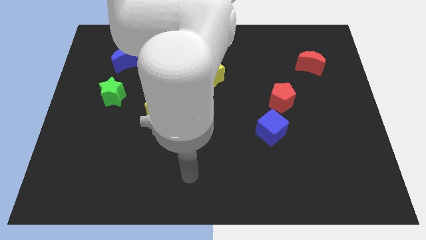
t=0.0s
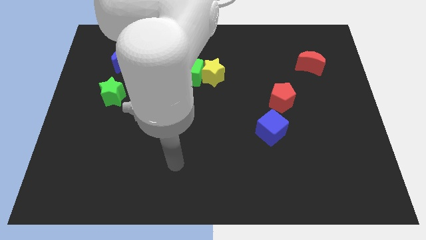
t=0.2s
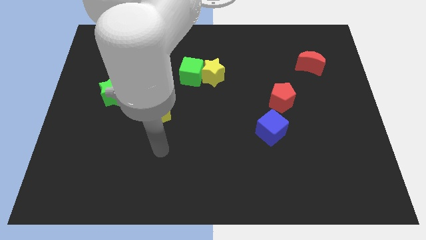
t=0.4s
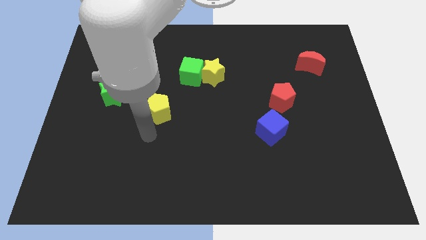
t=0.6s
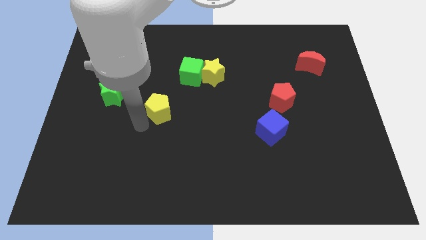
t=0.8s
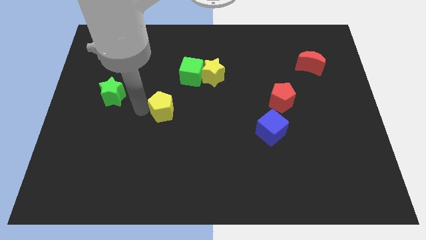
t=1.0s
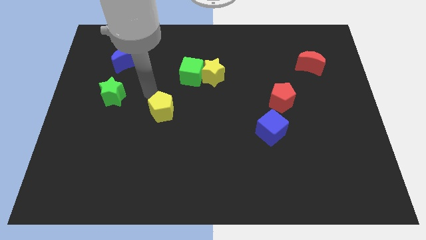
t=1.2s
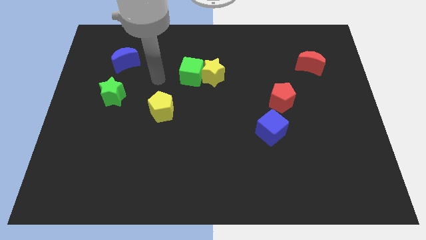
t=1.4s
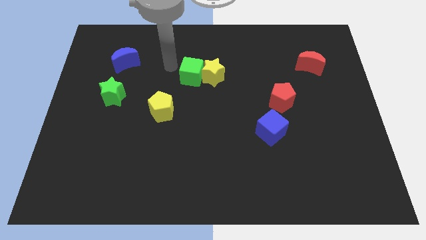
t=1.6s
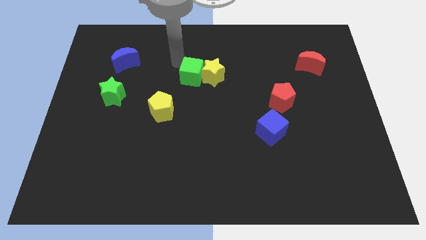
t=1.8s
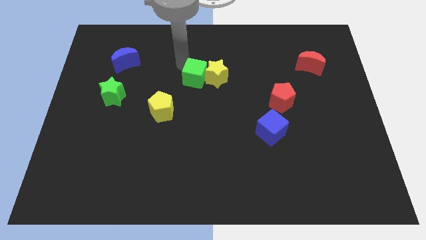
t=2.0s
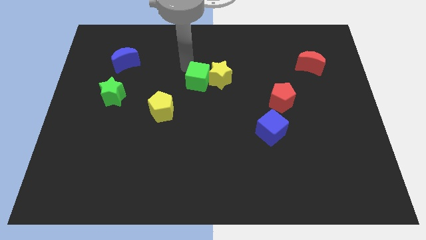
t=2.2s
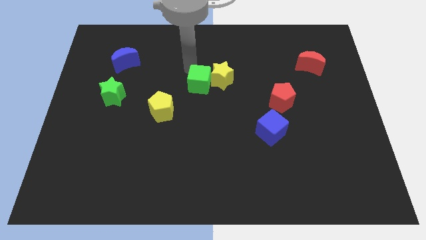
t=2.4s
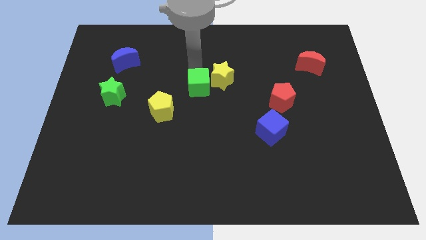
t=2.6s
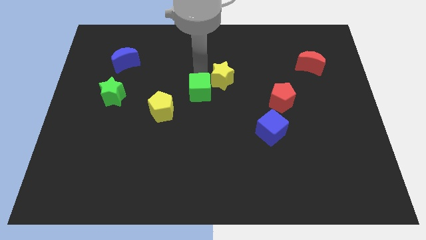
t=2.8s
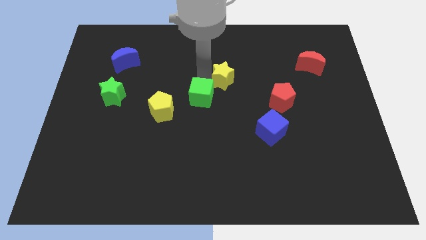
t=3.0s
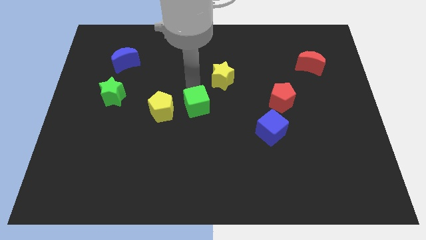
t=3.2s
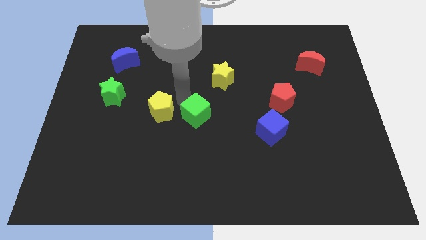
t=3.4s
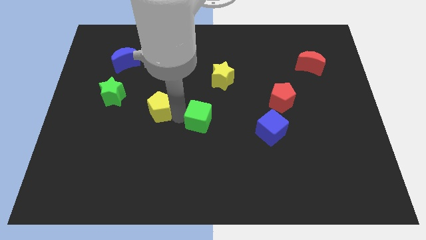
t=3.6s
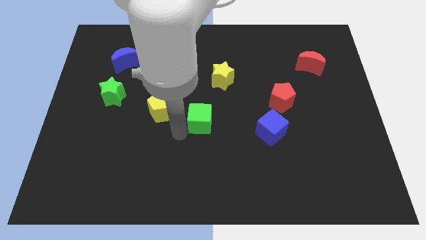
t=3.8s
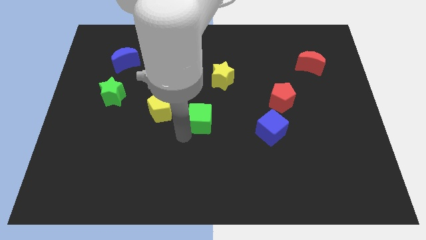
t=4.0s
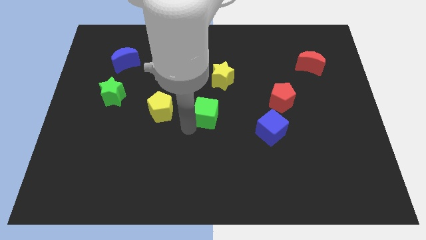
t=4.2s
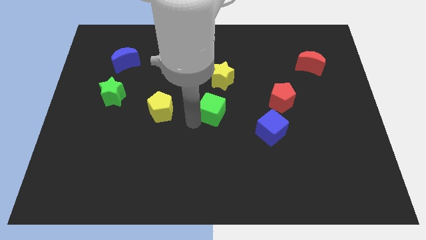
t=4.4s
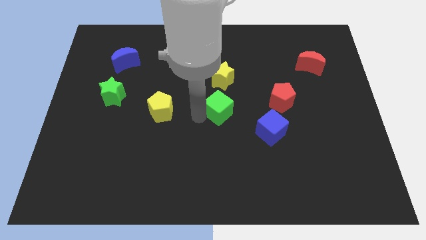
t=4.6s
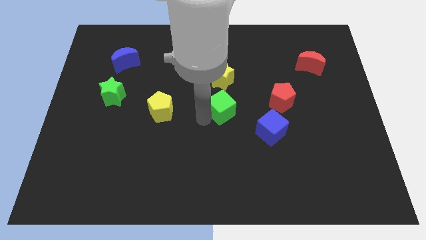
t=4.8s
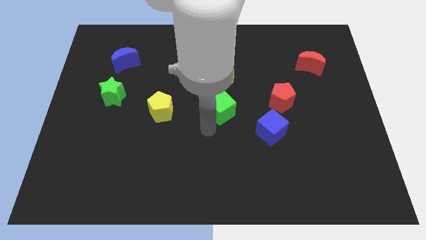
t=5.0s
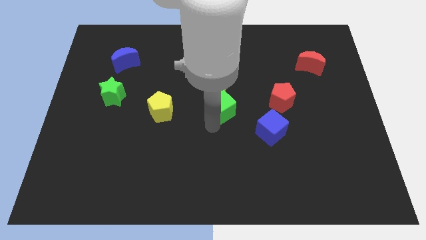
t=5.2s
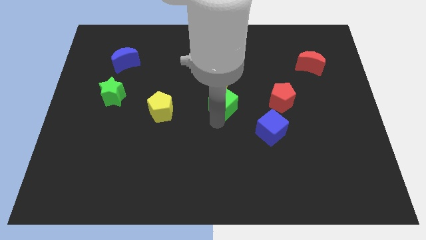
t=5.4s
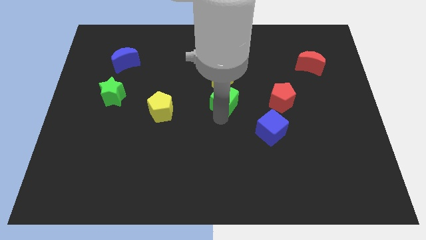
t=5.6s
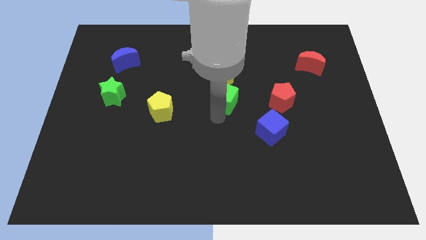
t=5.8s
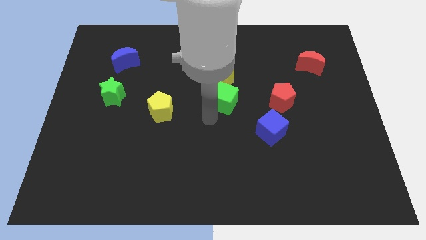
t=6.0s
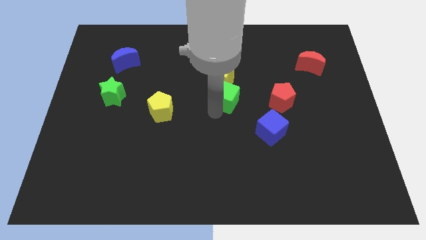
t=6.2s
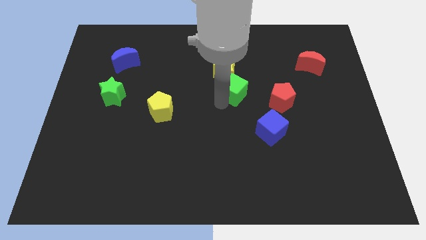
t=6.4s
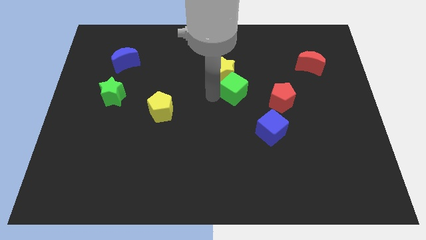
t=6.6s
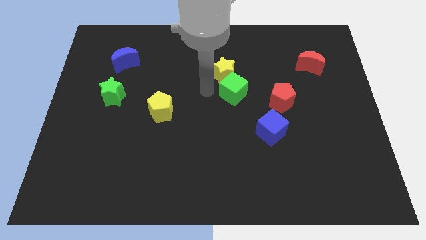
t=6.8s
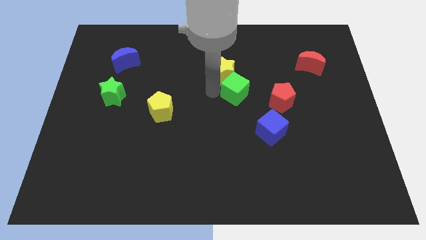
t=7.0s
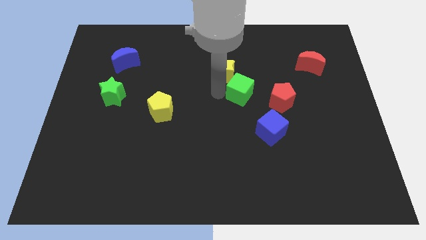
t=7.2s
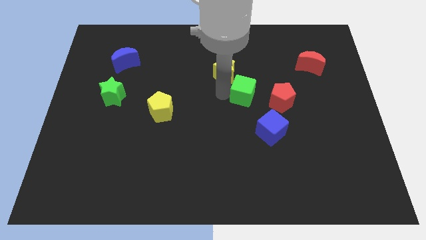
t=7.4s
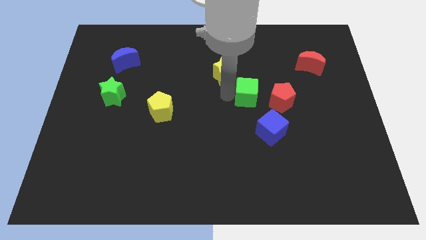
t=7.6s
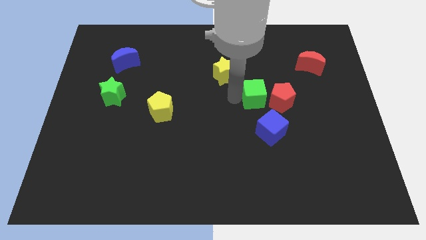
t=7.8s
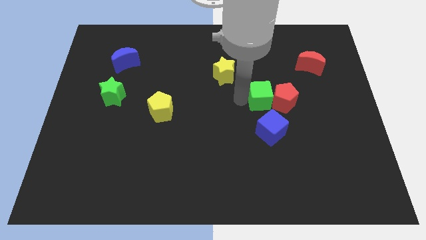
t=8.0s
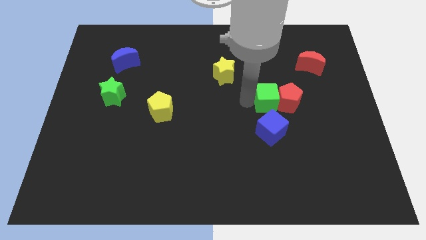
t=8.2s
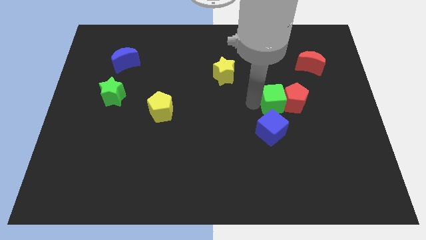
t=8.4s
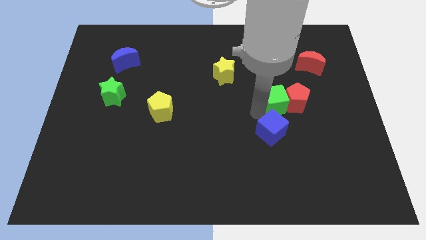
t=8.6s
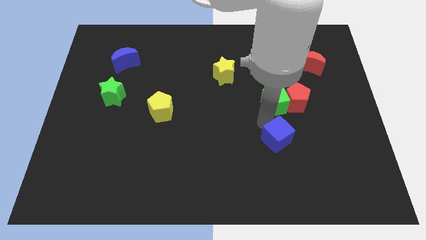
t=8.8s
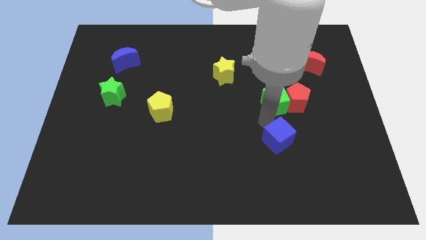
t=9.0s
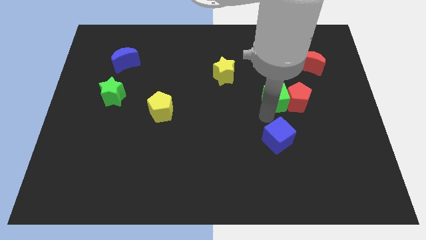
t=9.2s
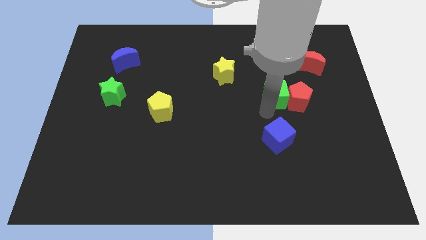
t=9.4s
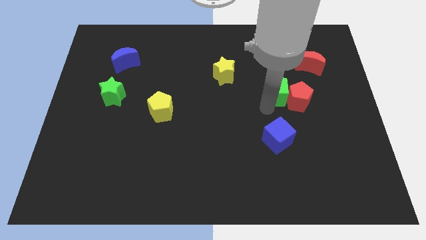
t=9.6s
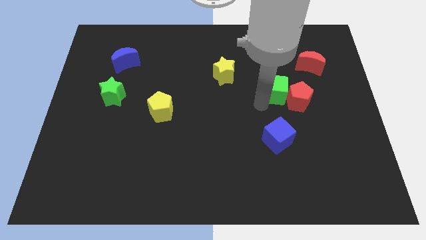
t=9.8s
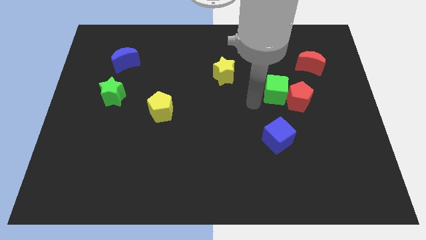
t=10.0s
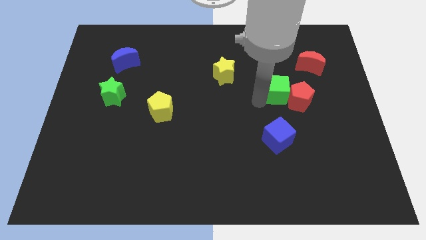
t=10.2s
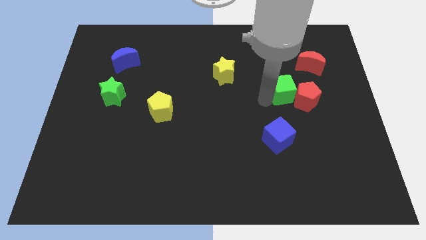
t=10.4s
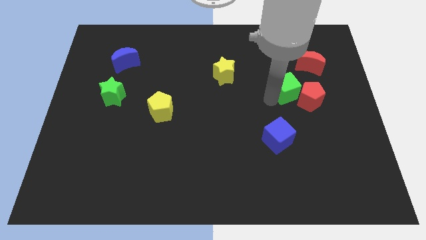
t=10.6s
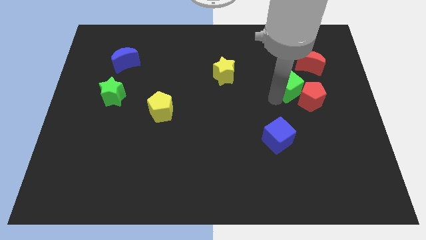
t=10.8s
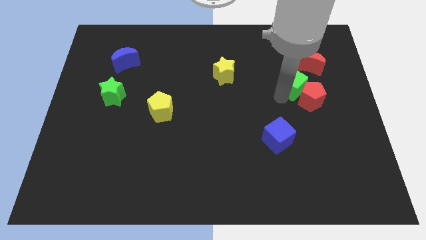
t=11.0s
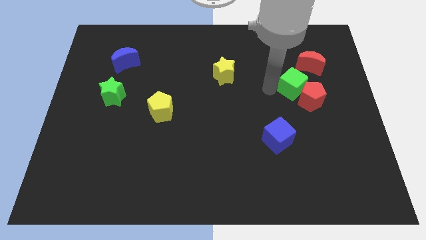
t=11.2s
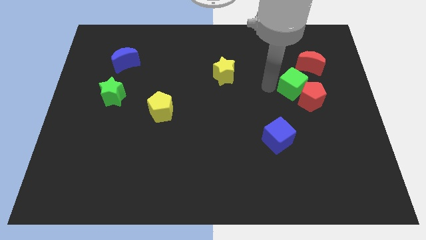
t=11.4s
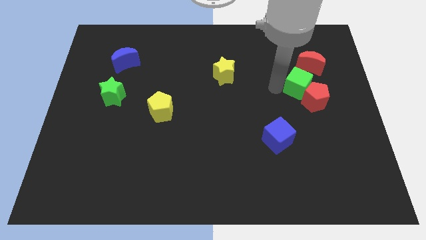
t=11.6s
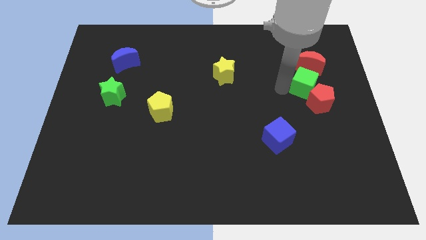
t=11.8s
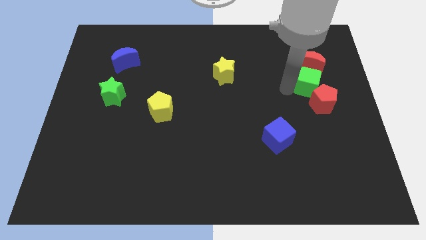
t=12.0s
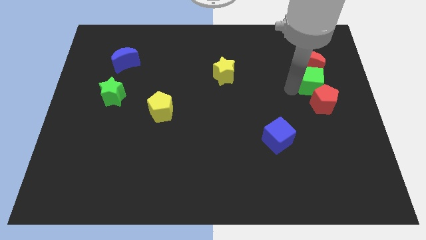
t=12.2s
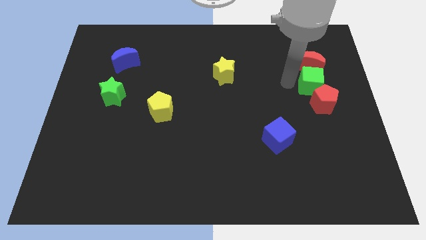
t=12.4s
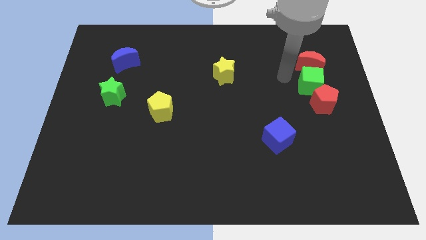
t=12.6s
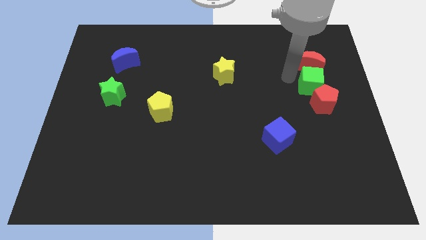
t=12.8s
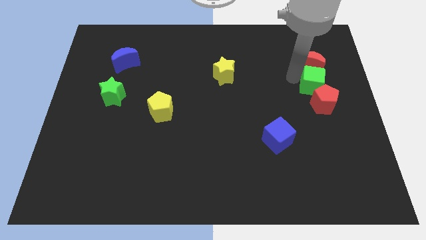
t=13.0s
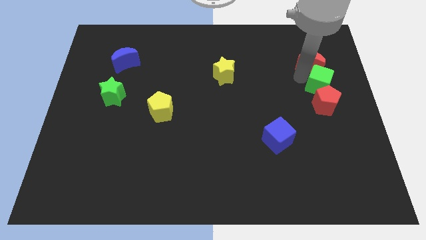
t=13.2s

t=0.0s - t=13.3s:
put the green cube to the center right
